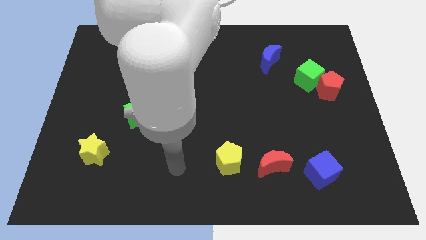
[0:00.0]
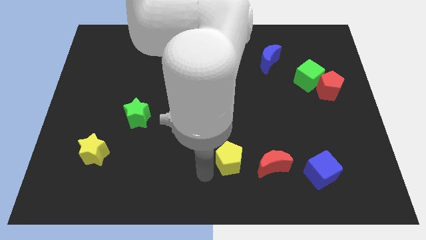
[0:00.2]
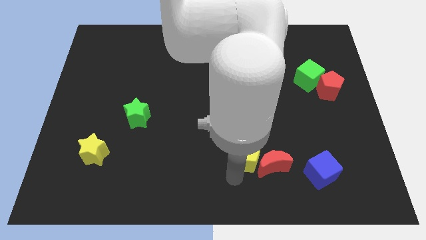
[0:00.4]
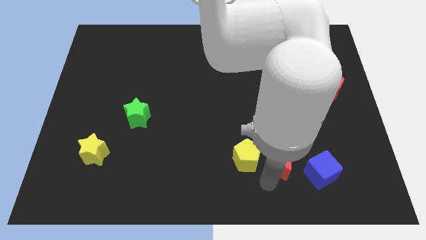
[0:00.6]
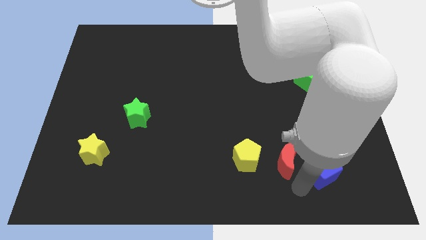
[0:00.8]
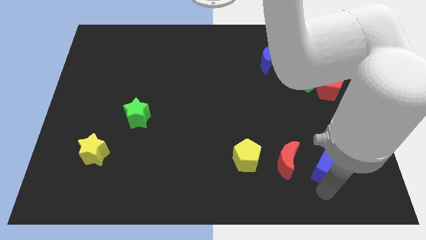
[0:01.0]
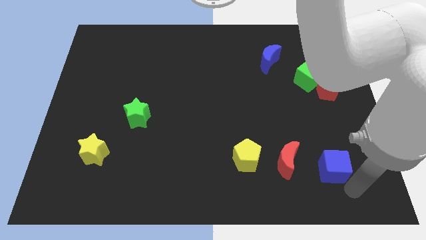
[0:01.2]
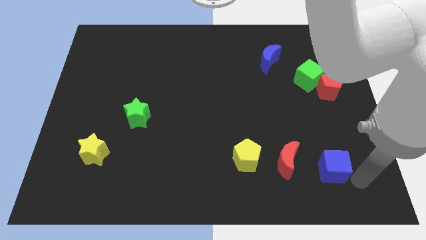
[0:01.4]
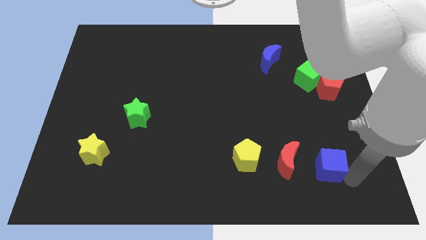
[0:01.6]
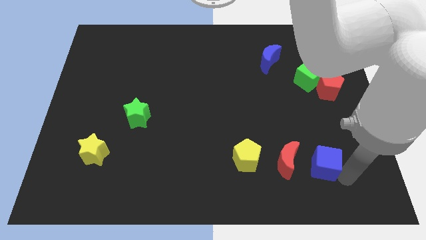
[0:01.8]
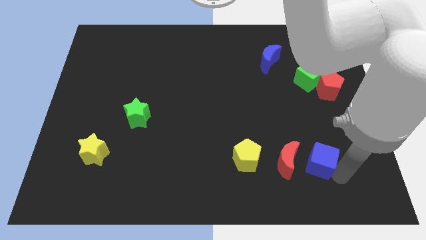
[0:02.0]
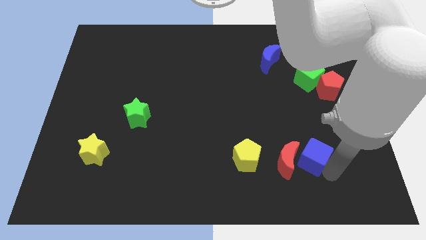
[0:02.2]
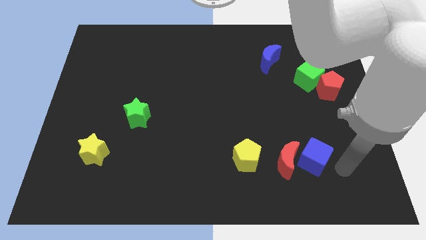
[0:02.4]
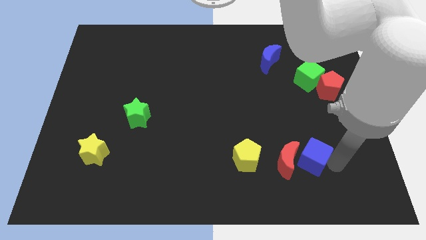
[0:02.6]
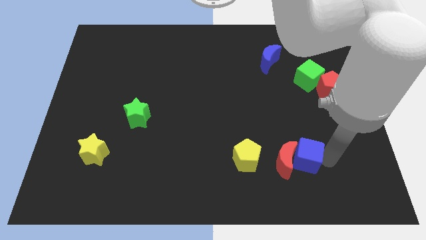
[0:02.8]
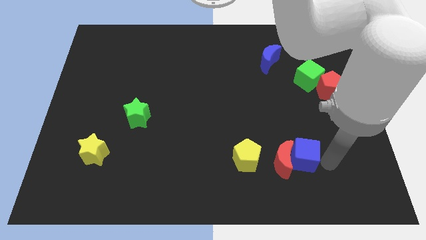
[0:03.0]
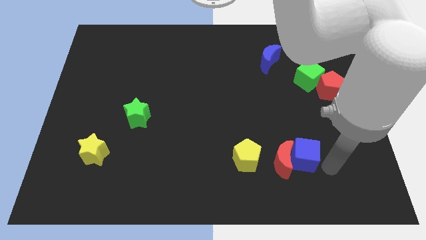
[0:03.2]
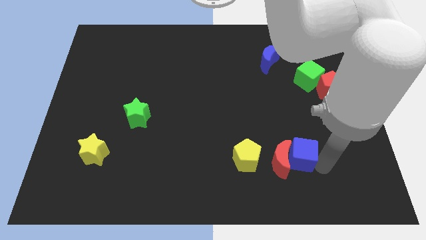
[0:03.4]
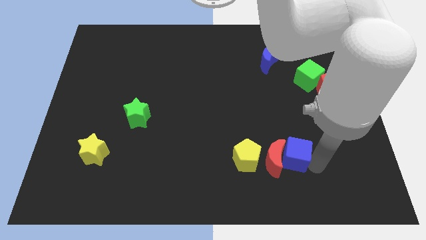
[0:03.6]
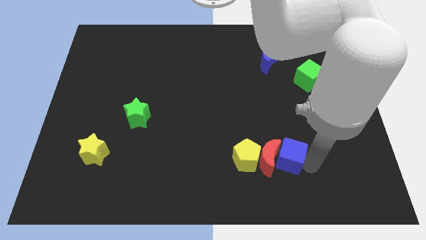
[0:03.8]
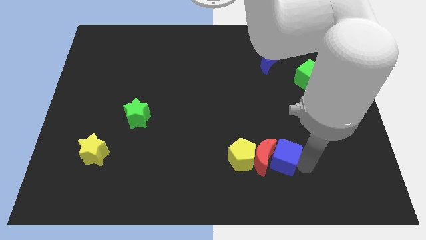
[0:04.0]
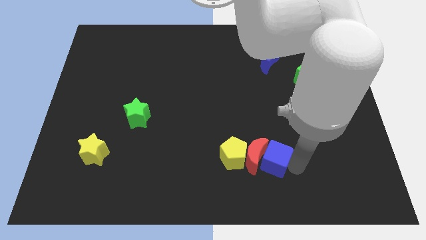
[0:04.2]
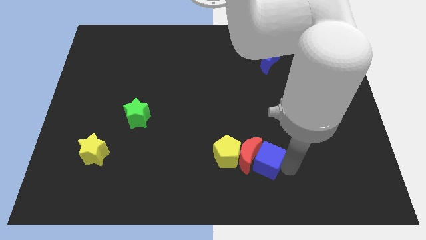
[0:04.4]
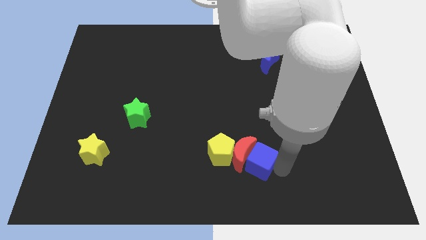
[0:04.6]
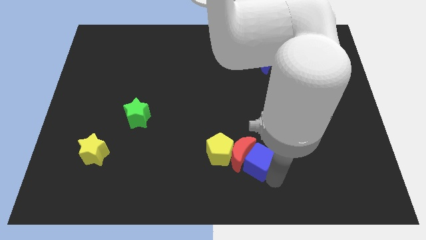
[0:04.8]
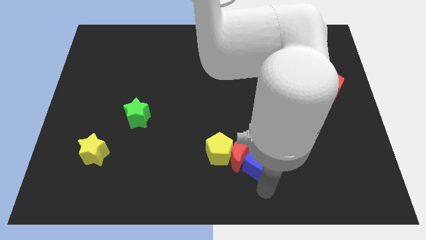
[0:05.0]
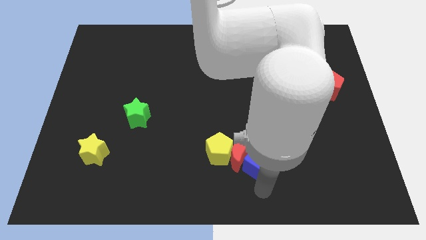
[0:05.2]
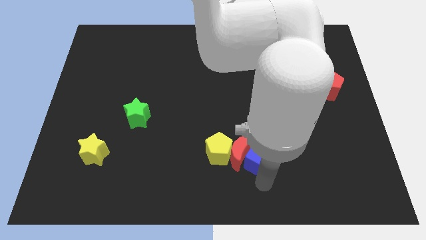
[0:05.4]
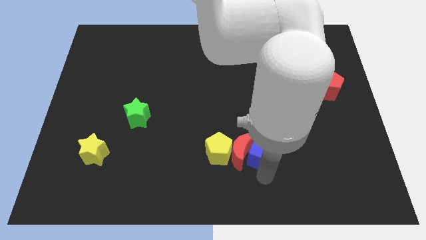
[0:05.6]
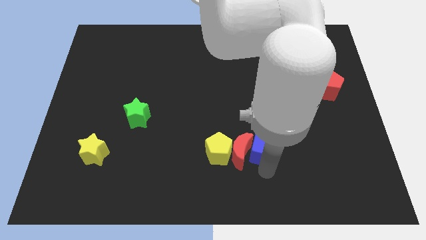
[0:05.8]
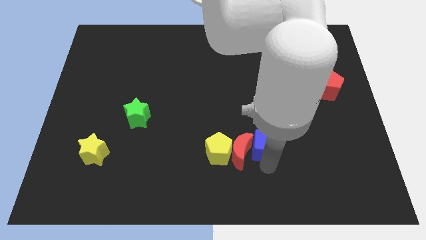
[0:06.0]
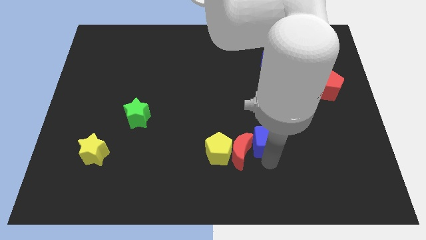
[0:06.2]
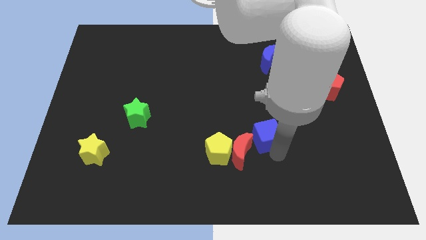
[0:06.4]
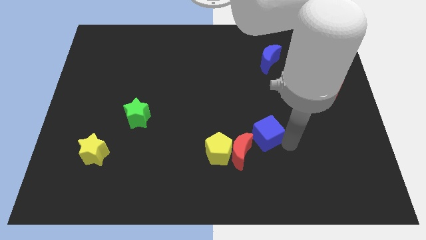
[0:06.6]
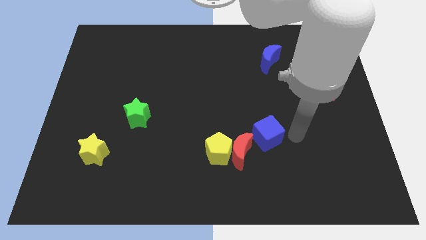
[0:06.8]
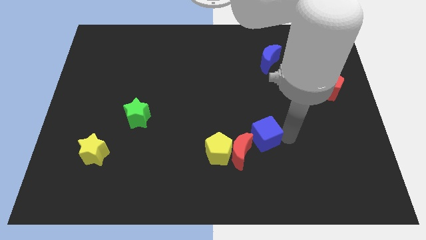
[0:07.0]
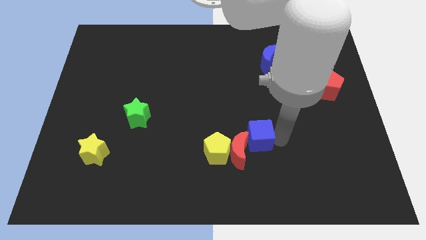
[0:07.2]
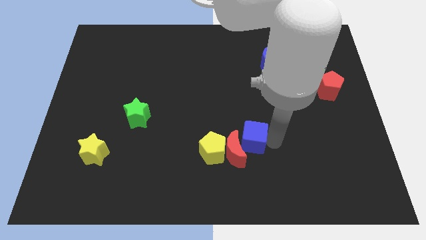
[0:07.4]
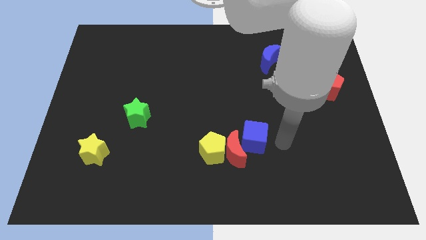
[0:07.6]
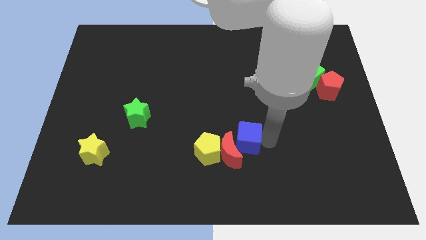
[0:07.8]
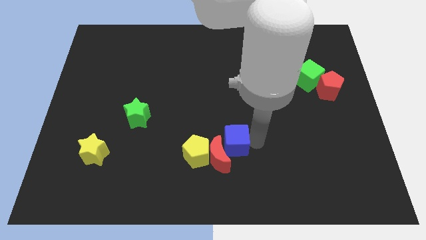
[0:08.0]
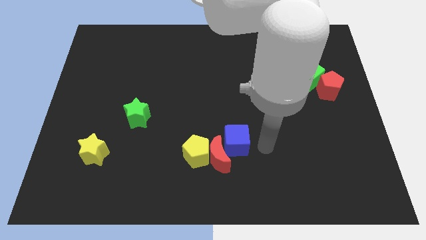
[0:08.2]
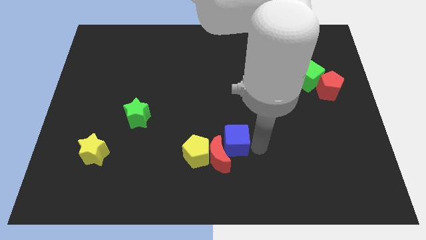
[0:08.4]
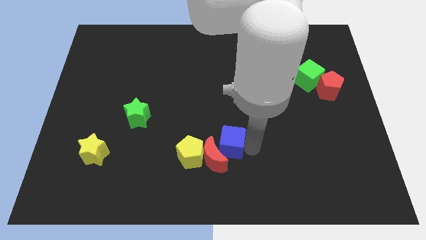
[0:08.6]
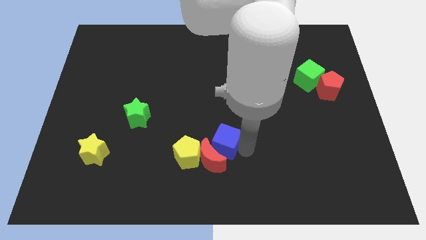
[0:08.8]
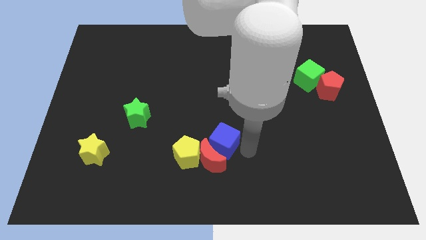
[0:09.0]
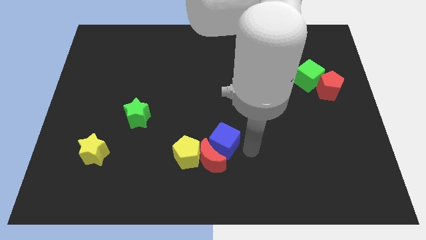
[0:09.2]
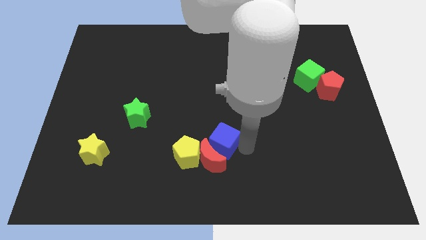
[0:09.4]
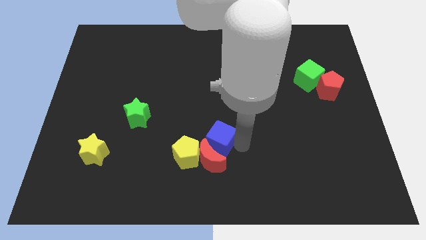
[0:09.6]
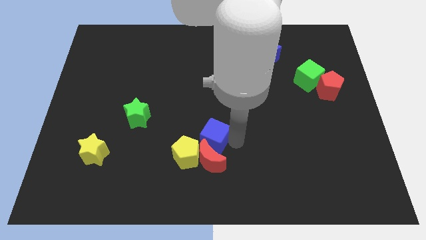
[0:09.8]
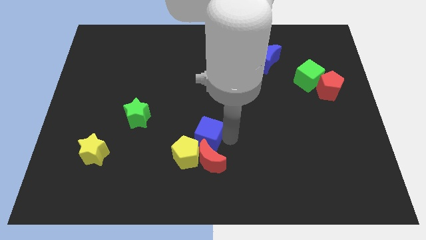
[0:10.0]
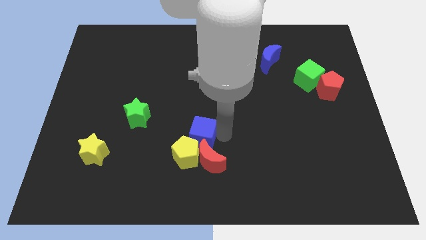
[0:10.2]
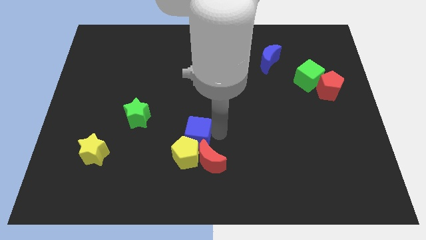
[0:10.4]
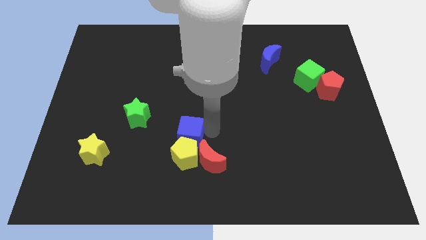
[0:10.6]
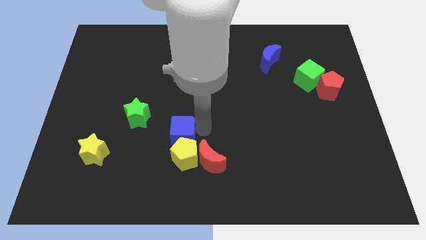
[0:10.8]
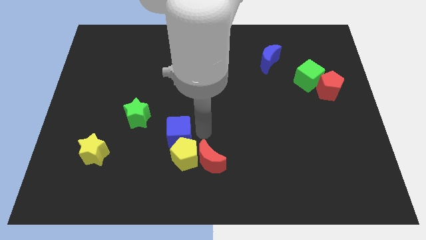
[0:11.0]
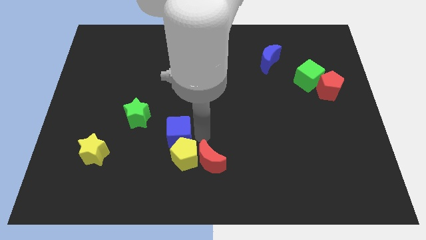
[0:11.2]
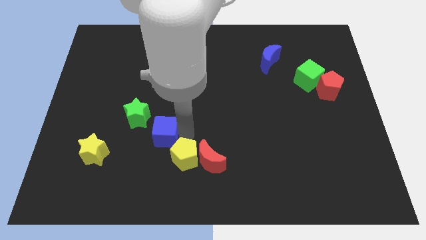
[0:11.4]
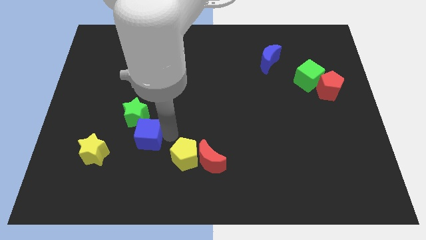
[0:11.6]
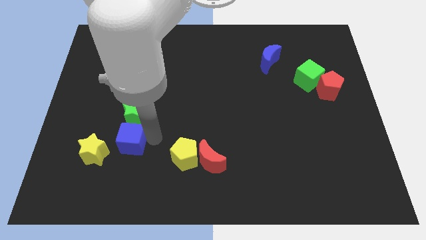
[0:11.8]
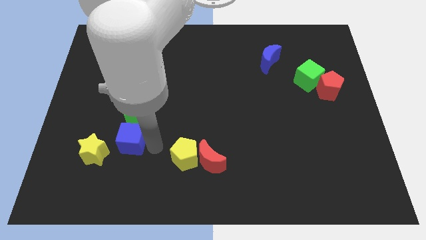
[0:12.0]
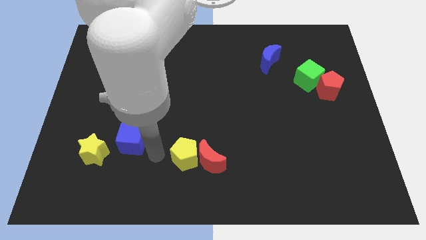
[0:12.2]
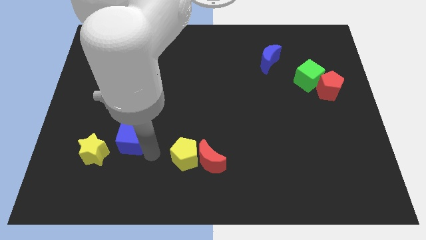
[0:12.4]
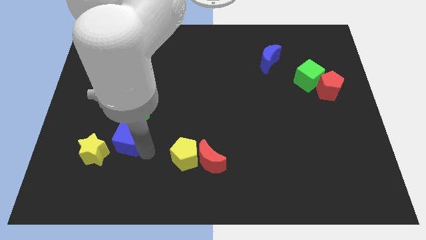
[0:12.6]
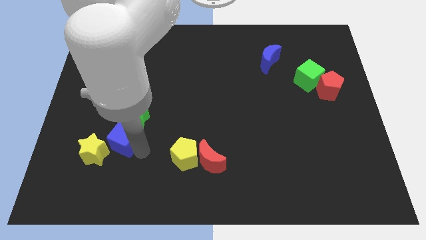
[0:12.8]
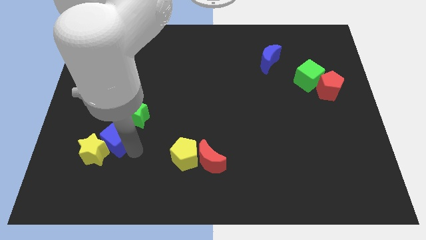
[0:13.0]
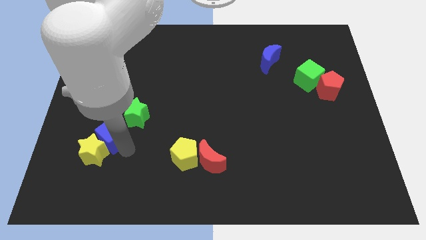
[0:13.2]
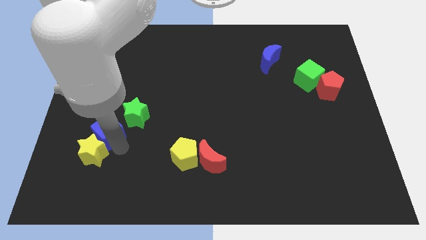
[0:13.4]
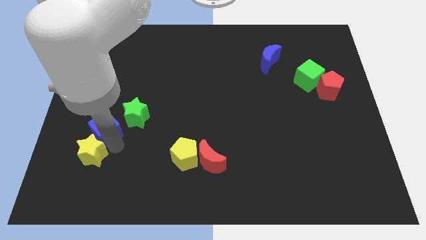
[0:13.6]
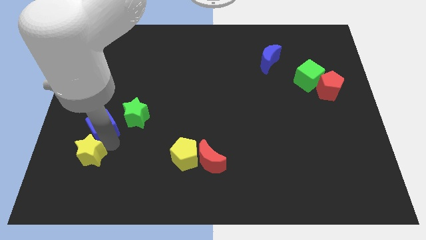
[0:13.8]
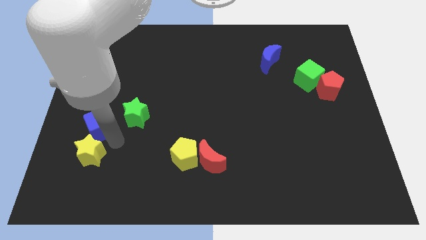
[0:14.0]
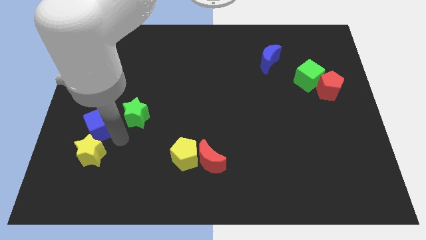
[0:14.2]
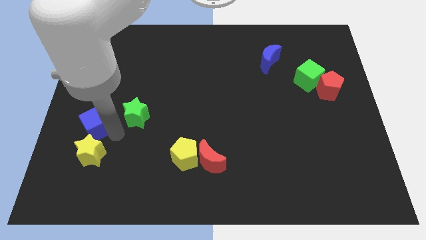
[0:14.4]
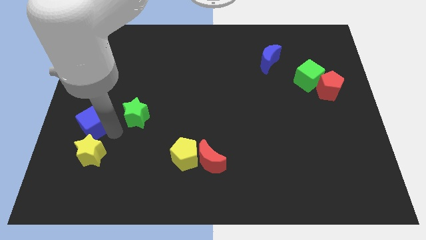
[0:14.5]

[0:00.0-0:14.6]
move the blue cube to the left side of the board
